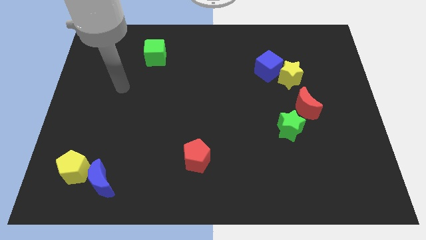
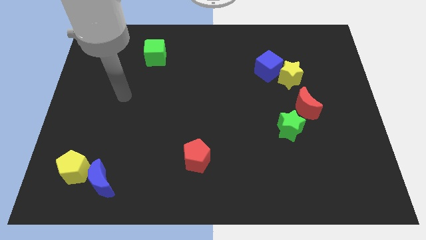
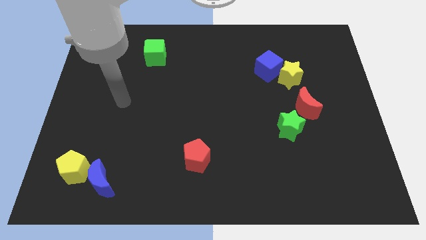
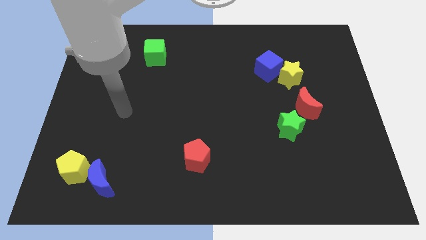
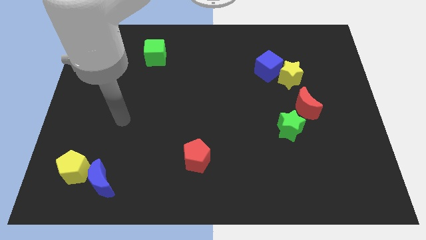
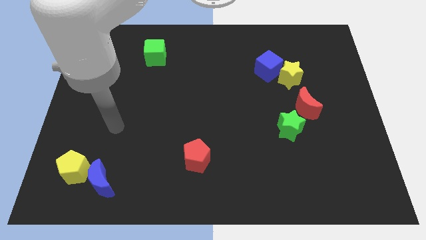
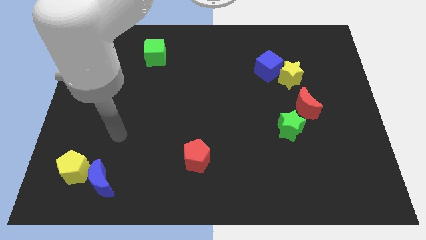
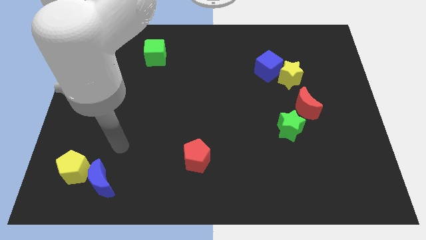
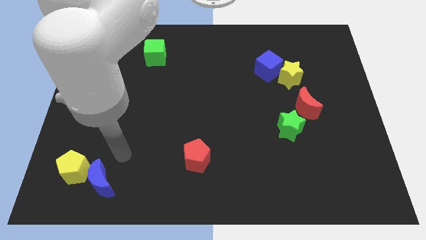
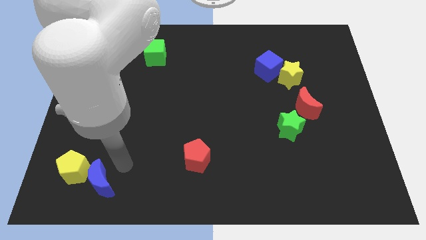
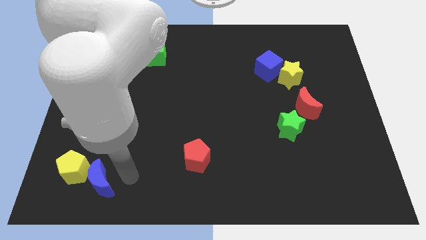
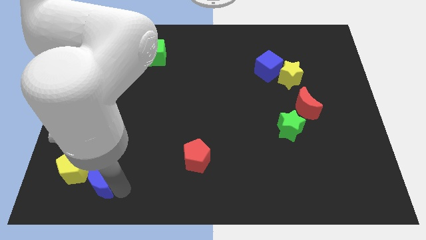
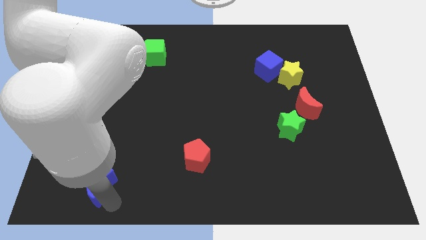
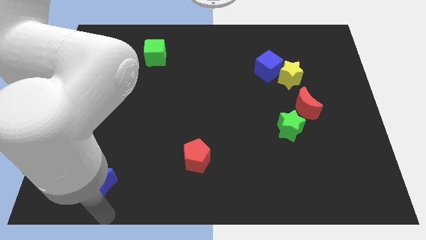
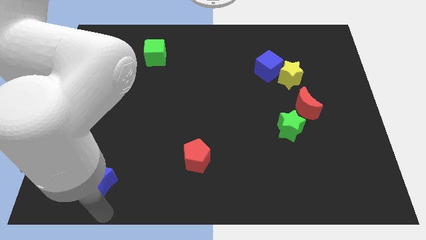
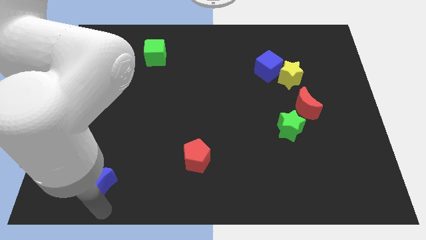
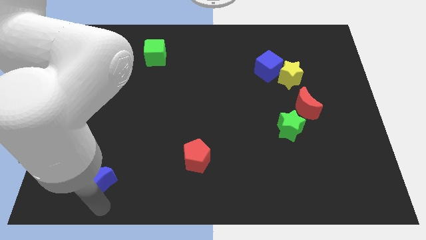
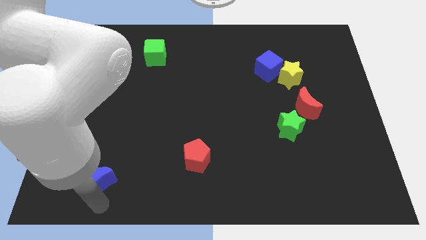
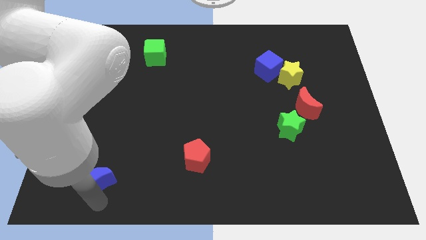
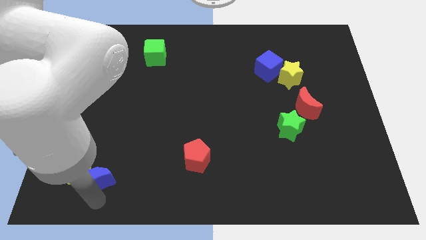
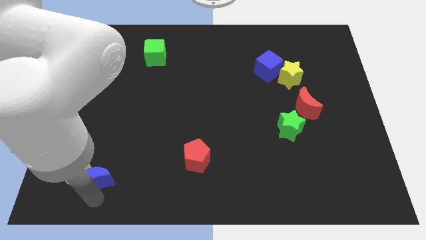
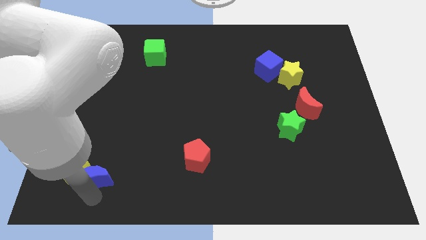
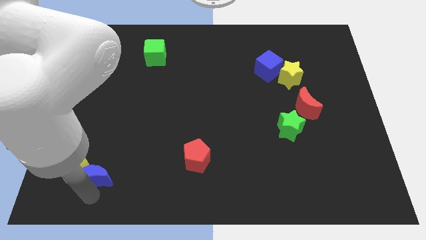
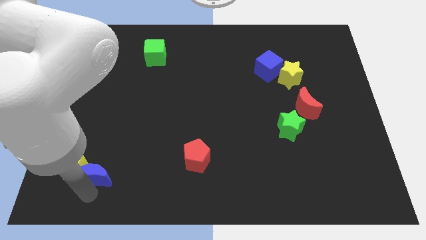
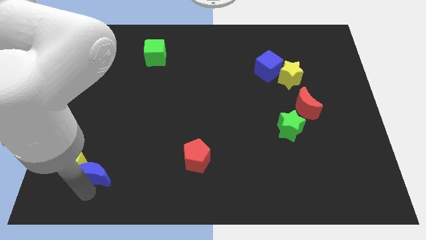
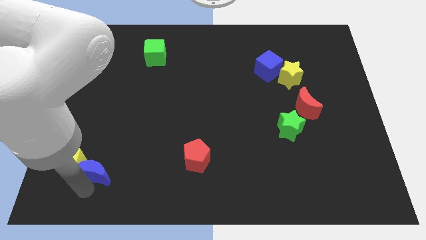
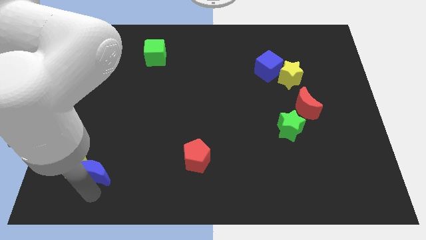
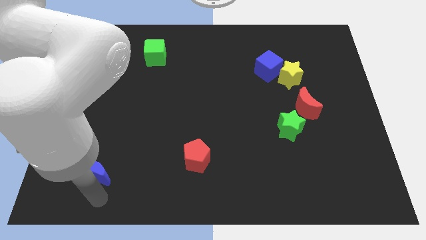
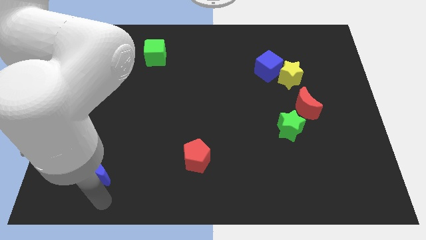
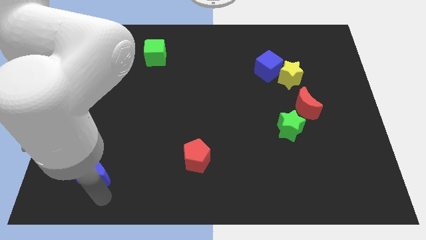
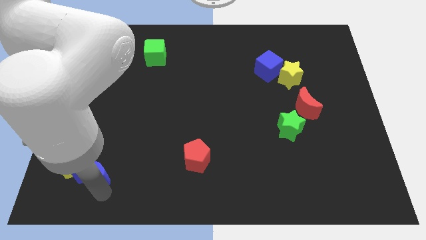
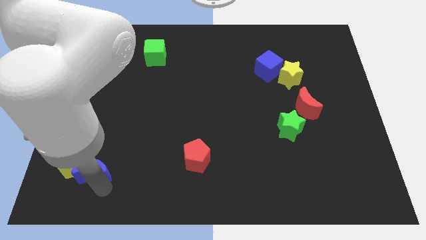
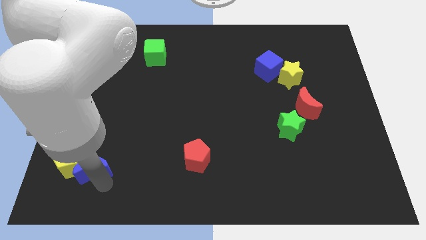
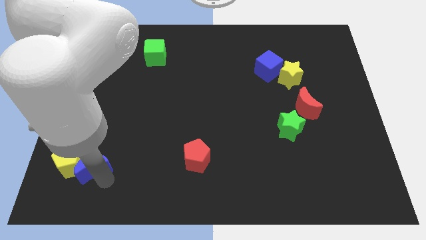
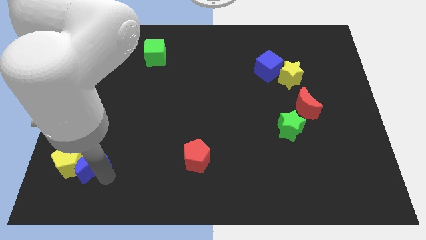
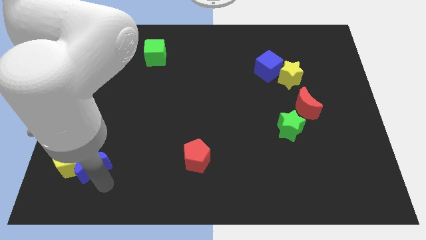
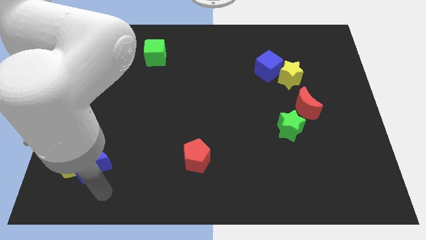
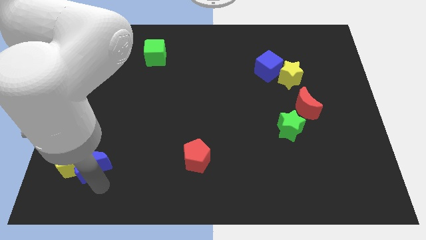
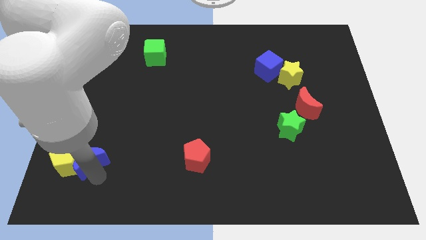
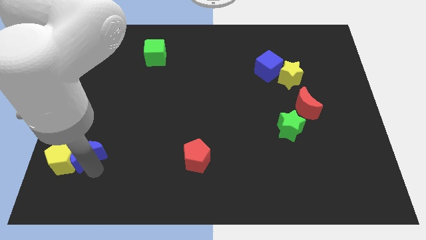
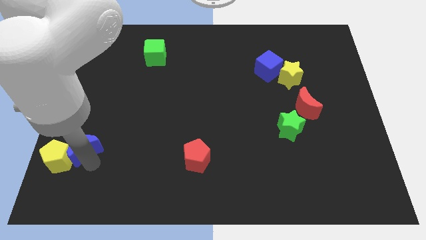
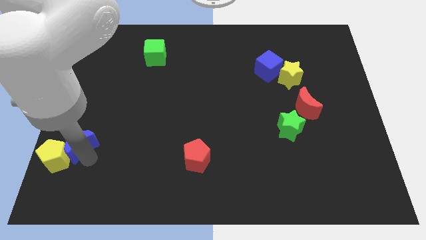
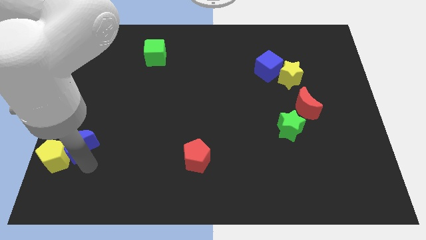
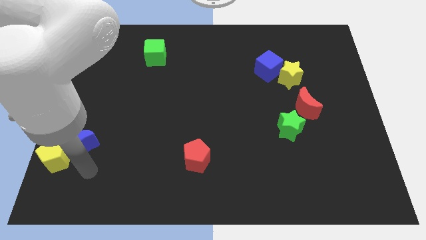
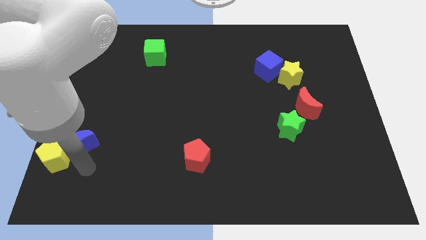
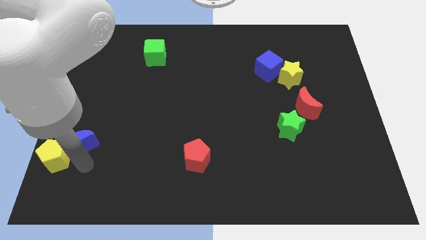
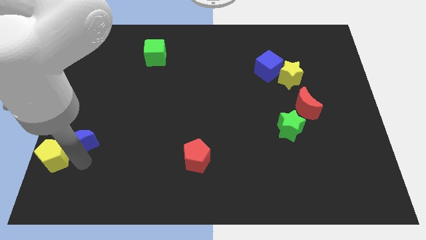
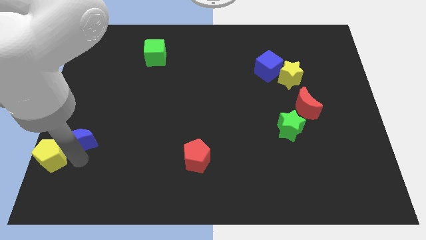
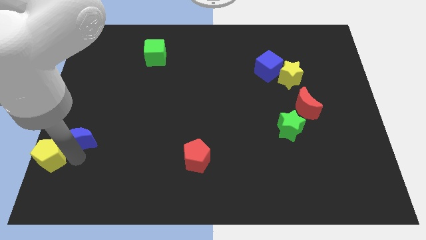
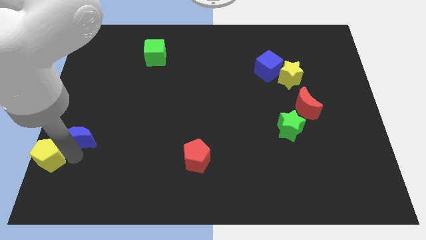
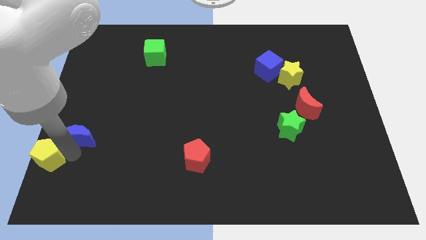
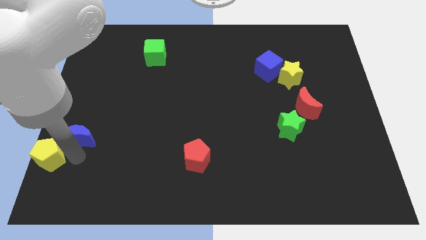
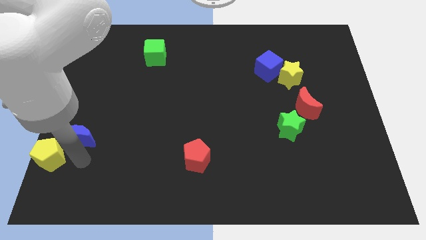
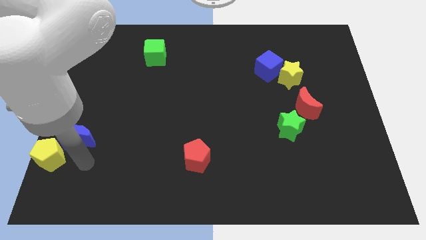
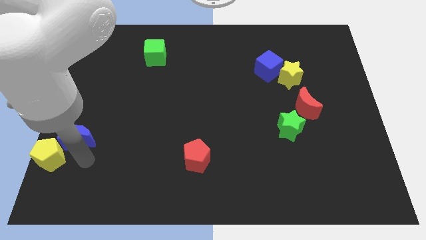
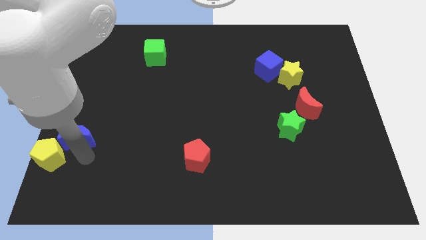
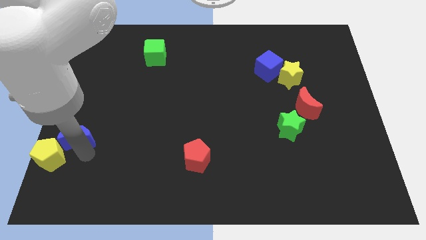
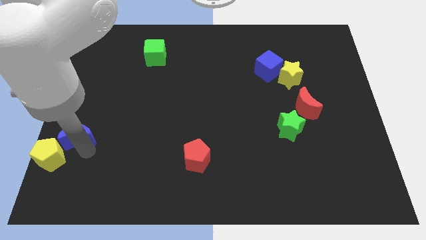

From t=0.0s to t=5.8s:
move the blue moon to the left side of the board

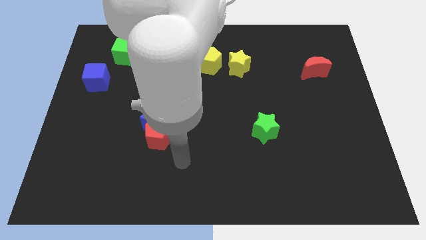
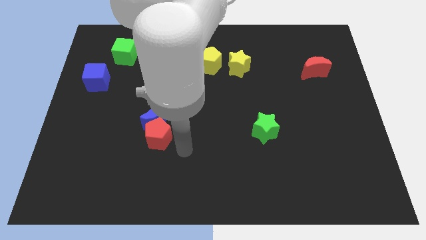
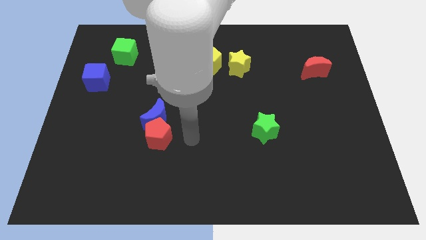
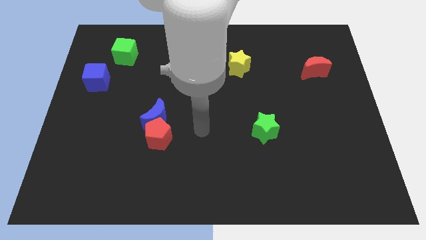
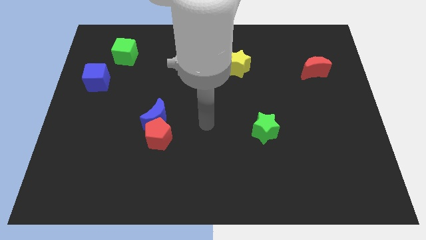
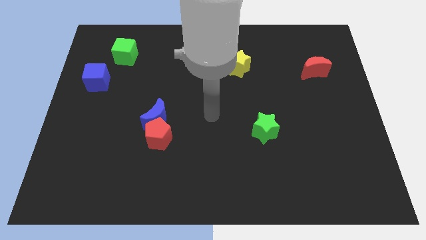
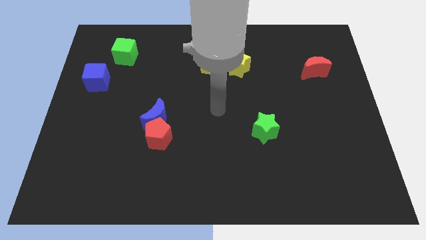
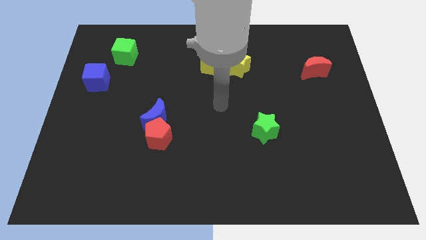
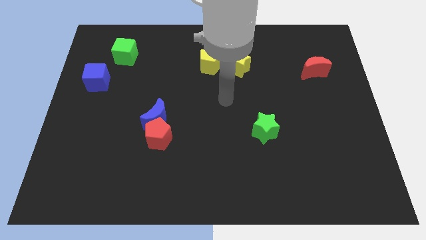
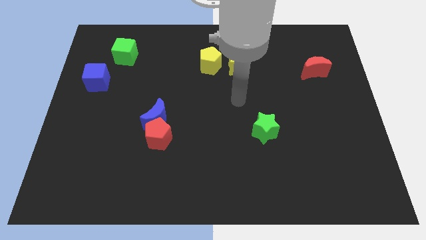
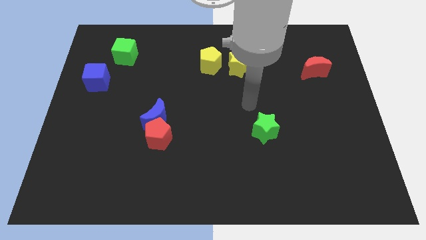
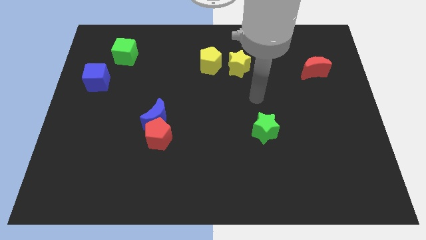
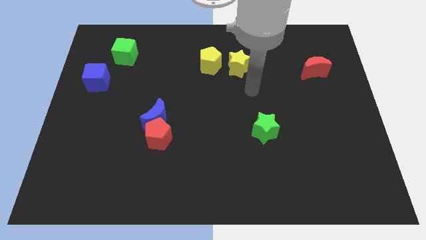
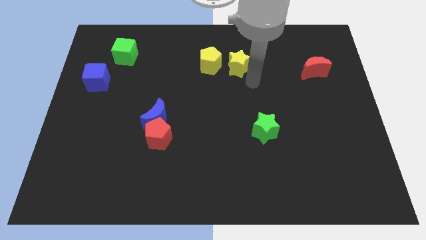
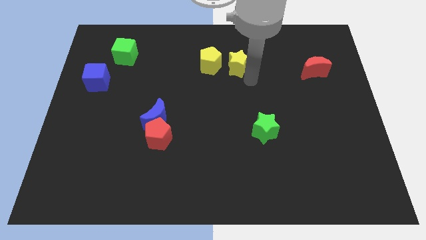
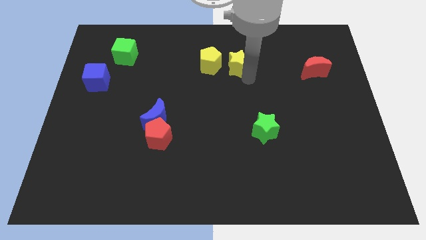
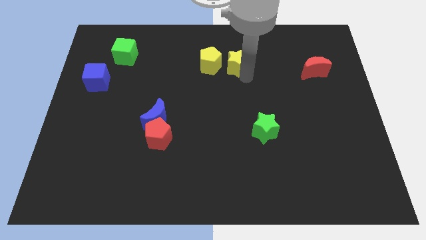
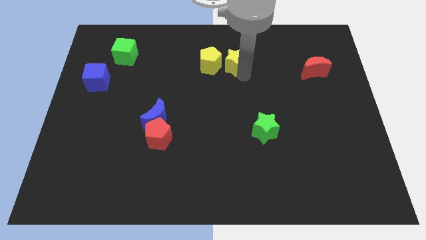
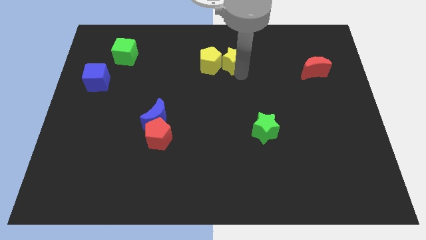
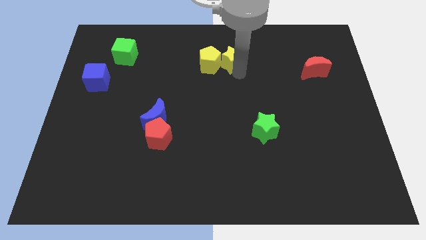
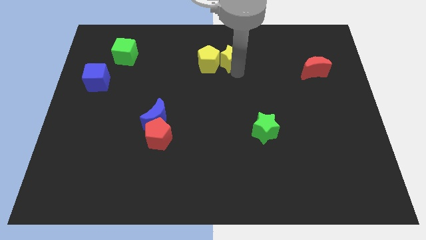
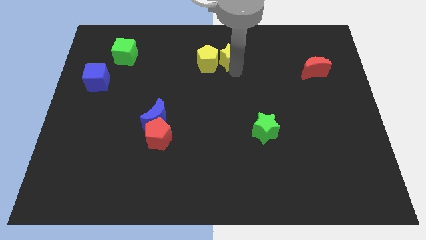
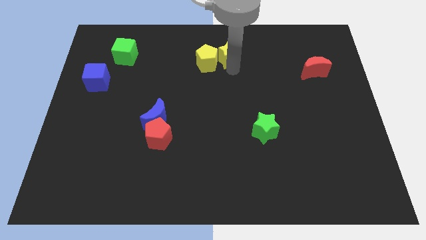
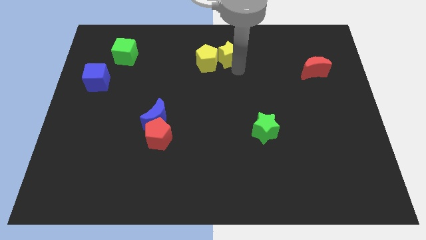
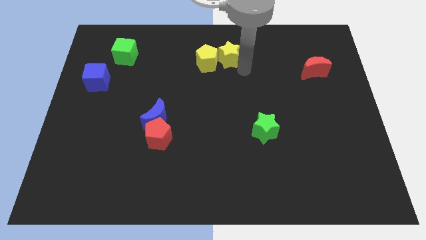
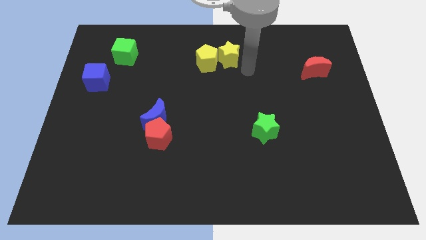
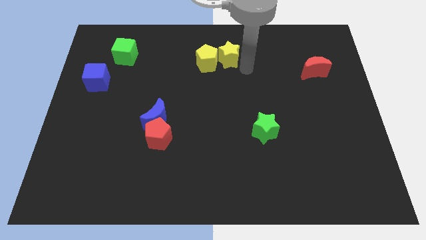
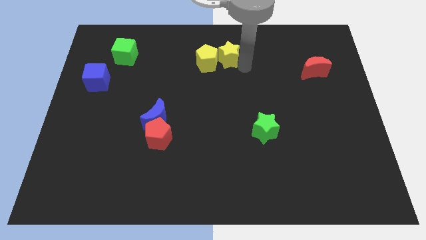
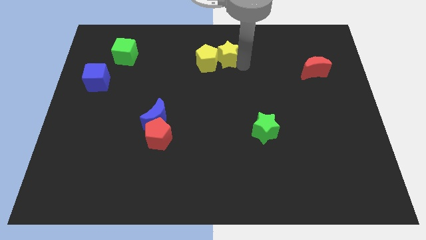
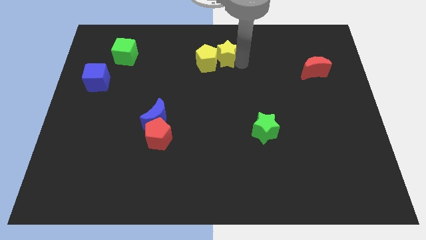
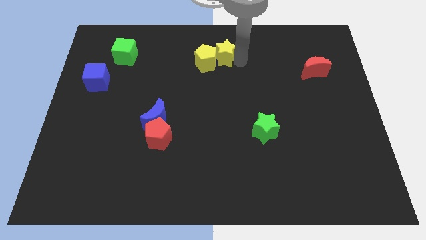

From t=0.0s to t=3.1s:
move the yellow star to the top
